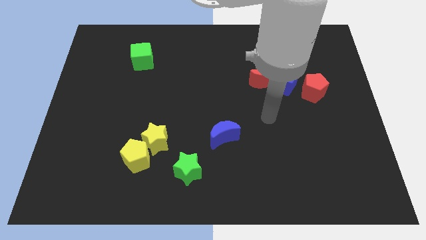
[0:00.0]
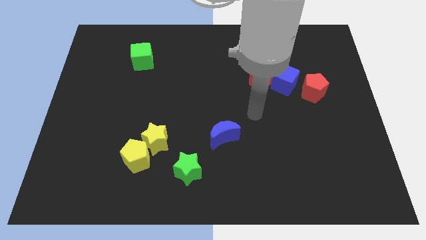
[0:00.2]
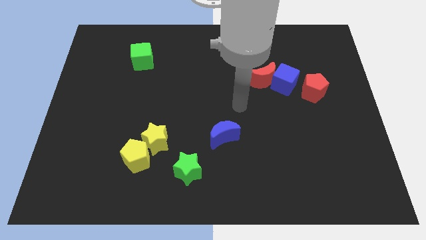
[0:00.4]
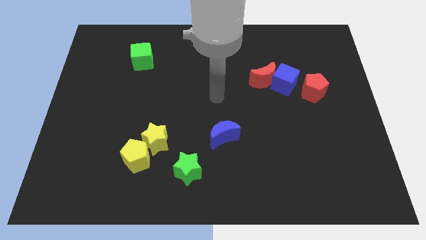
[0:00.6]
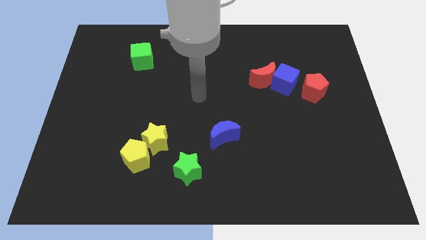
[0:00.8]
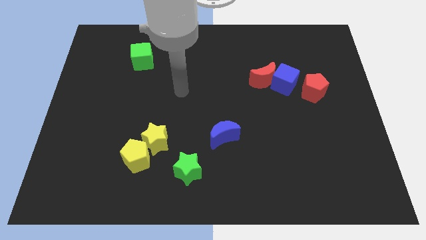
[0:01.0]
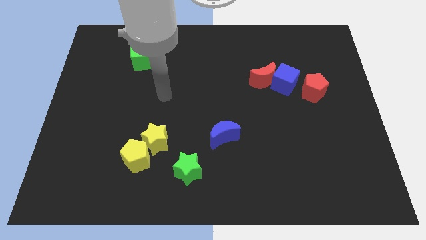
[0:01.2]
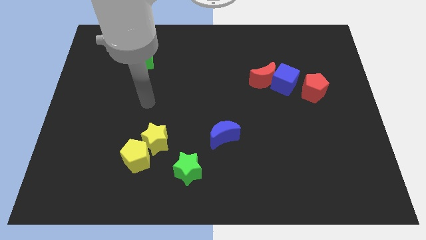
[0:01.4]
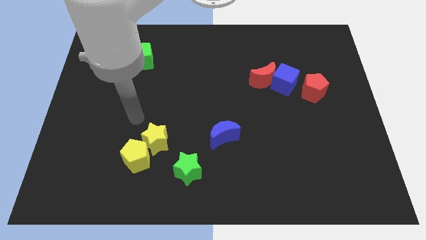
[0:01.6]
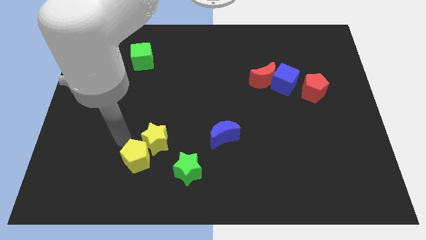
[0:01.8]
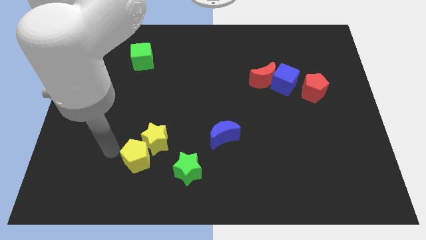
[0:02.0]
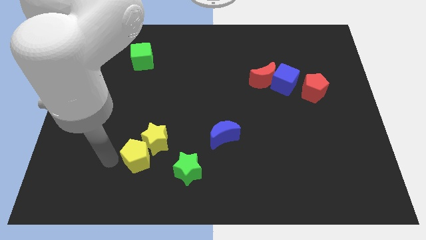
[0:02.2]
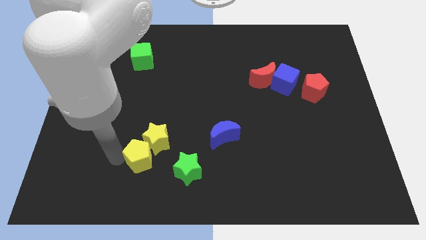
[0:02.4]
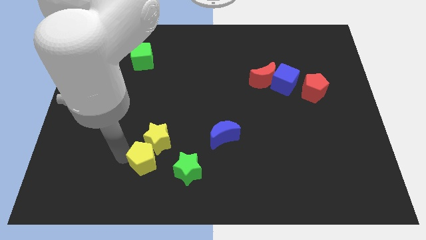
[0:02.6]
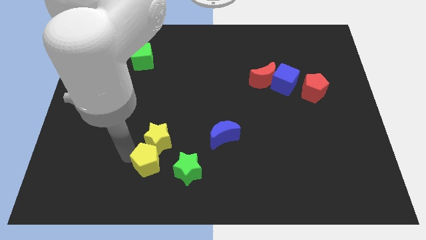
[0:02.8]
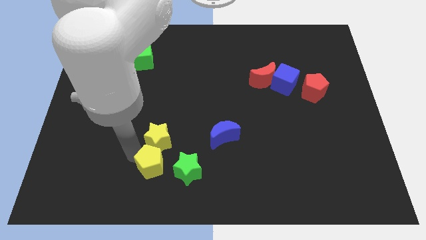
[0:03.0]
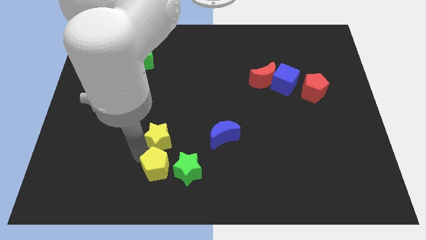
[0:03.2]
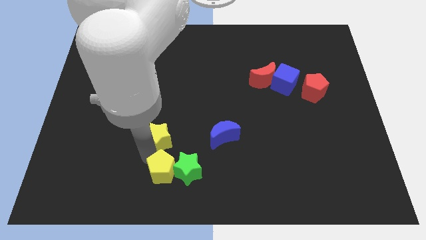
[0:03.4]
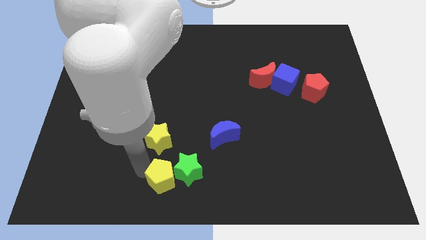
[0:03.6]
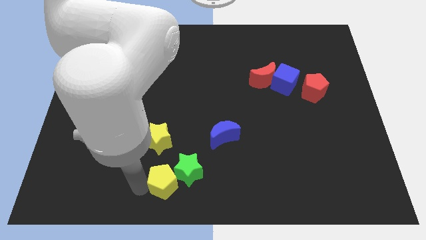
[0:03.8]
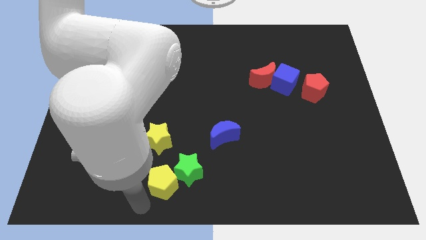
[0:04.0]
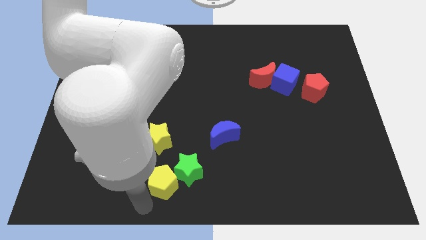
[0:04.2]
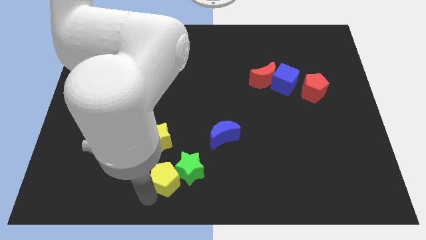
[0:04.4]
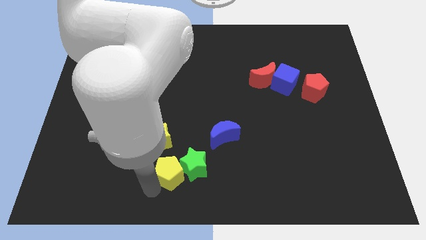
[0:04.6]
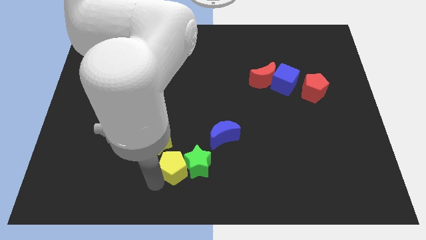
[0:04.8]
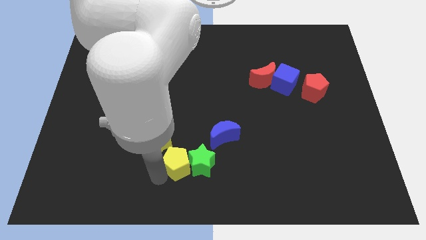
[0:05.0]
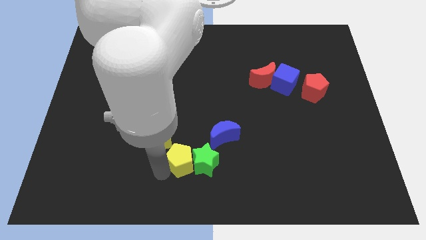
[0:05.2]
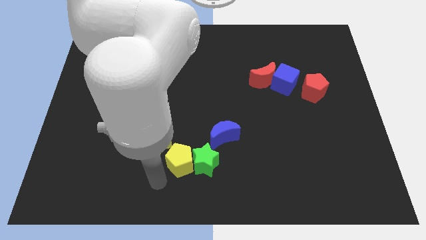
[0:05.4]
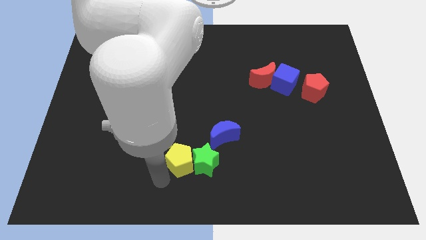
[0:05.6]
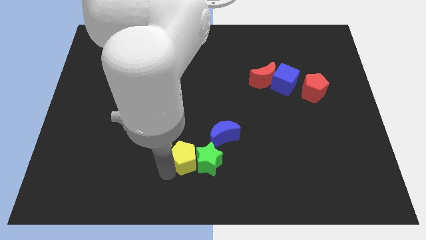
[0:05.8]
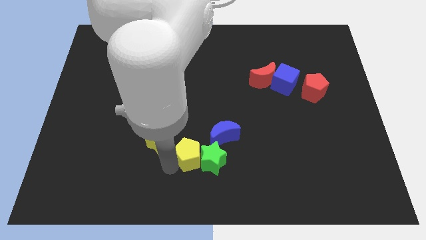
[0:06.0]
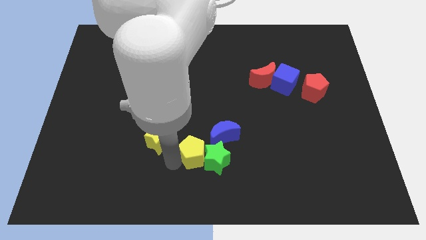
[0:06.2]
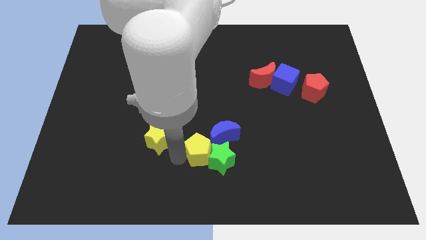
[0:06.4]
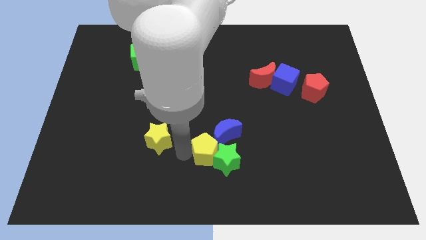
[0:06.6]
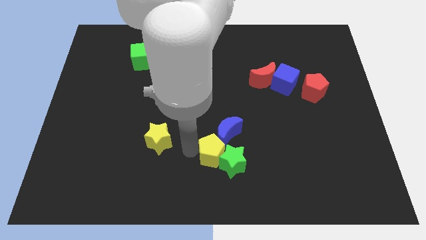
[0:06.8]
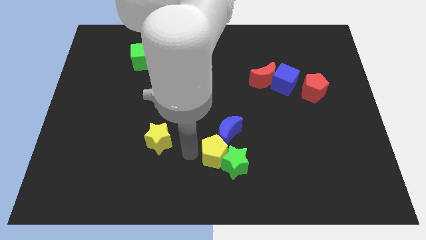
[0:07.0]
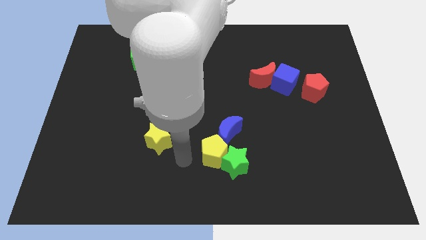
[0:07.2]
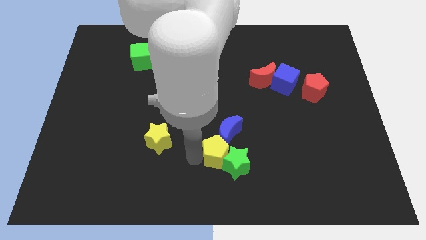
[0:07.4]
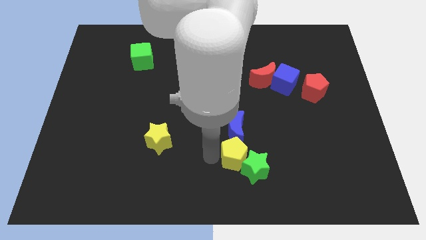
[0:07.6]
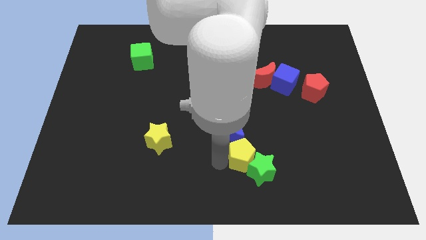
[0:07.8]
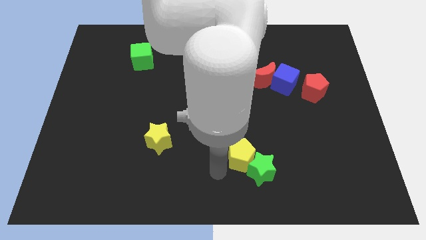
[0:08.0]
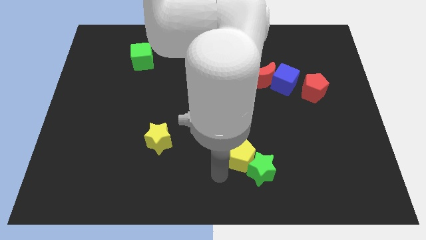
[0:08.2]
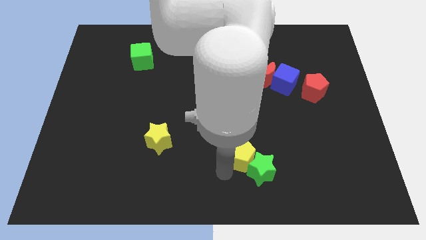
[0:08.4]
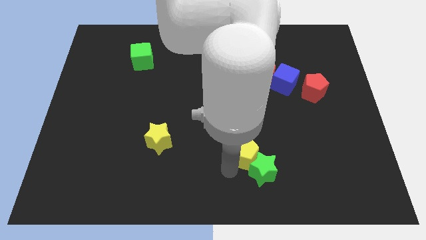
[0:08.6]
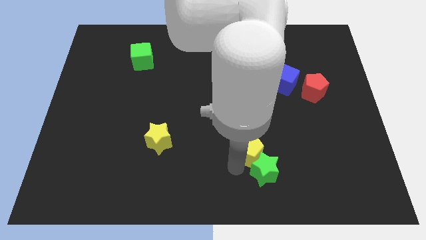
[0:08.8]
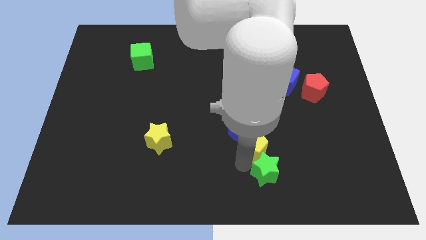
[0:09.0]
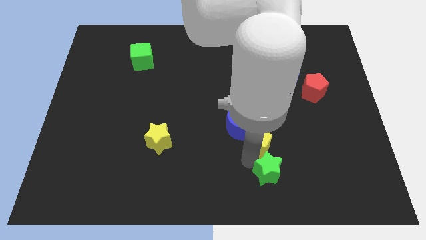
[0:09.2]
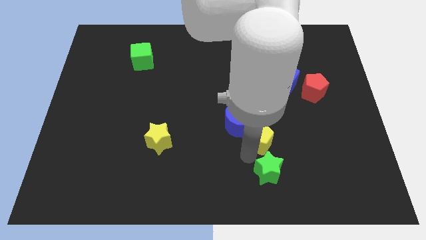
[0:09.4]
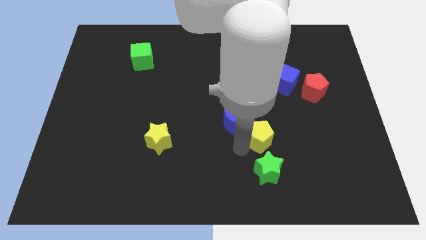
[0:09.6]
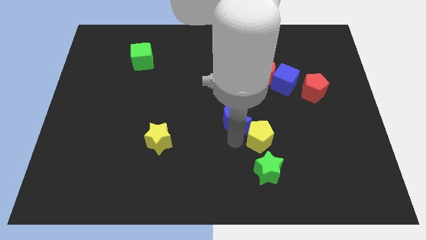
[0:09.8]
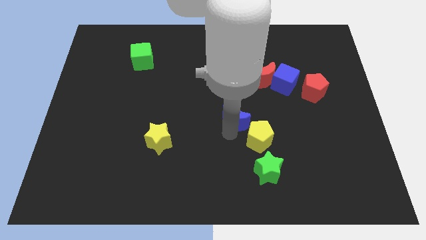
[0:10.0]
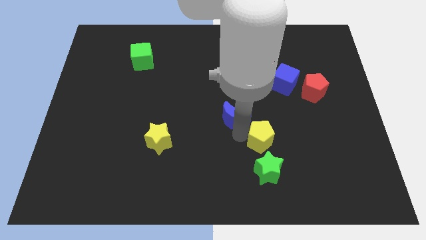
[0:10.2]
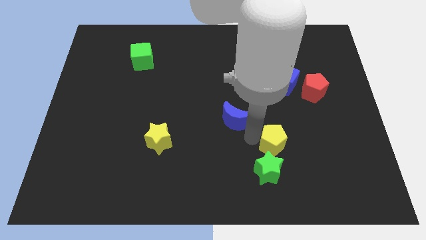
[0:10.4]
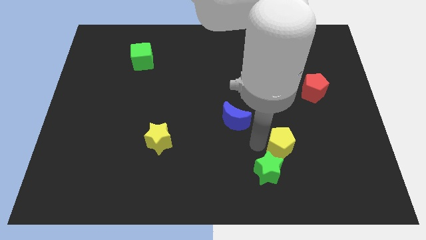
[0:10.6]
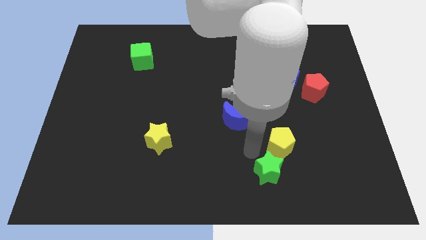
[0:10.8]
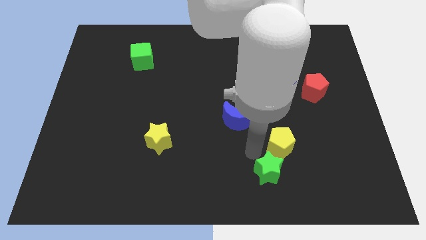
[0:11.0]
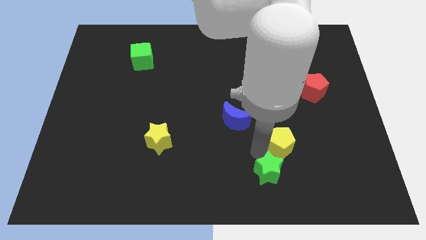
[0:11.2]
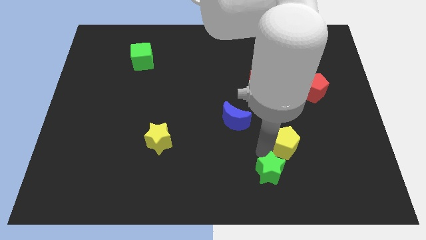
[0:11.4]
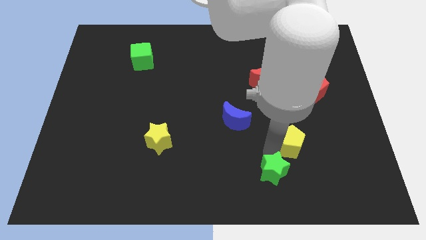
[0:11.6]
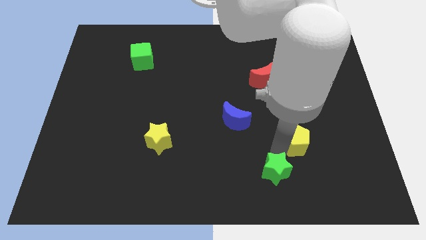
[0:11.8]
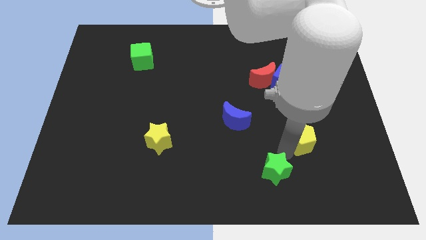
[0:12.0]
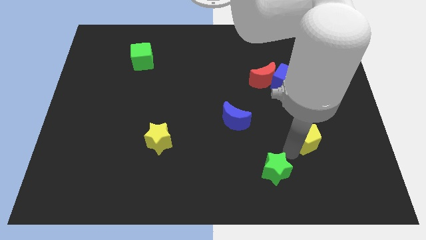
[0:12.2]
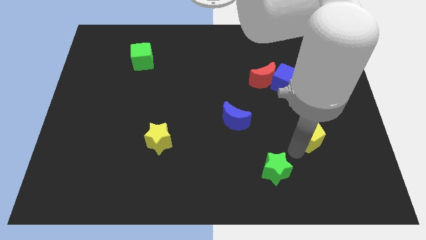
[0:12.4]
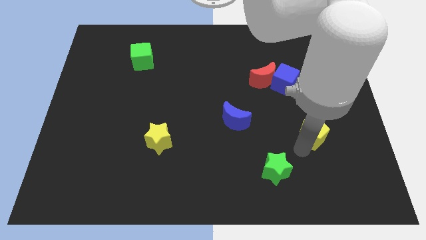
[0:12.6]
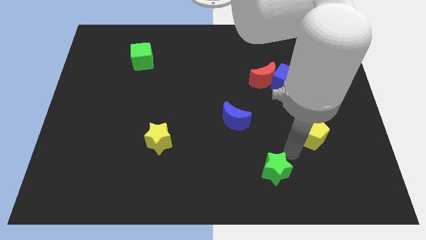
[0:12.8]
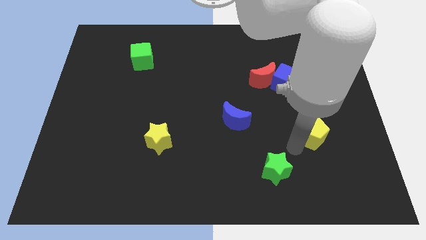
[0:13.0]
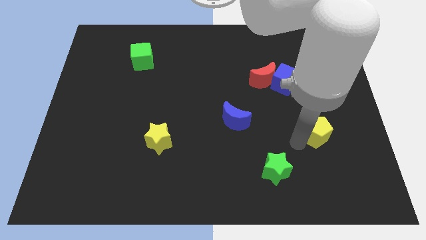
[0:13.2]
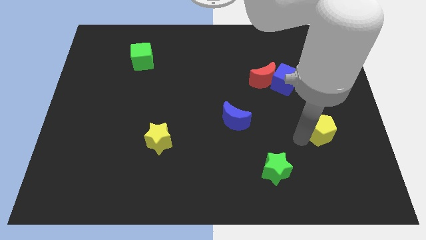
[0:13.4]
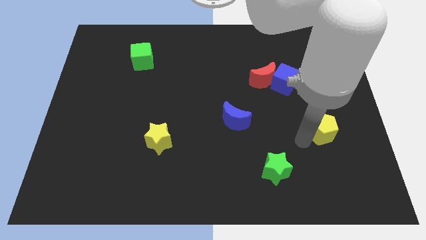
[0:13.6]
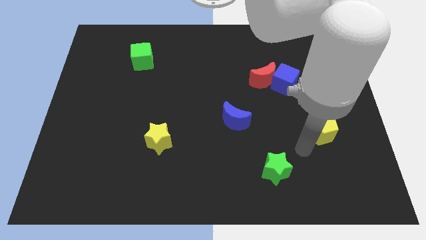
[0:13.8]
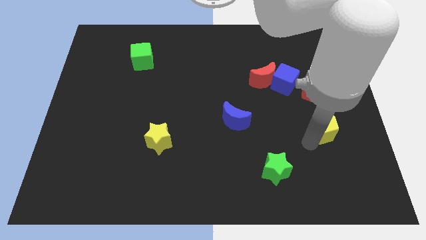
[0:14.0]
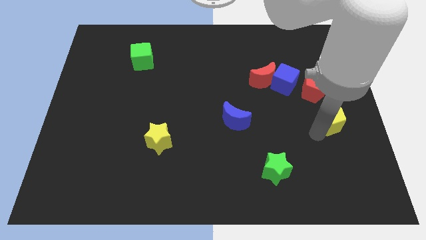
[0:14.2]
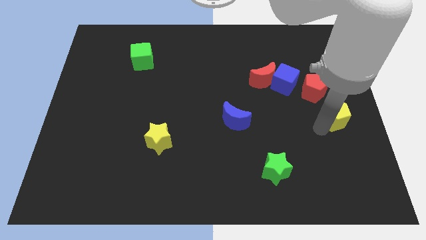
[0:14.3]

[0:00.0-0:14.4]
put the yellow pentagon to the right side of the board
